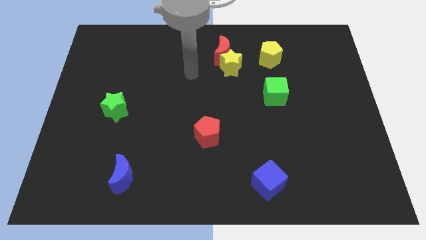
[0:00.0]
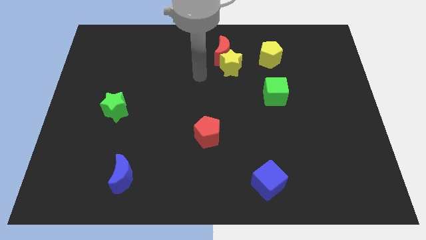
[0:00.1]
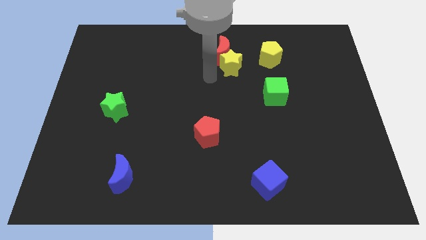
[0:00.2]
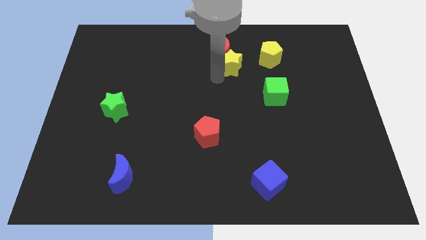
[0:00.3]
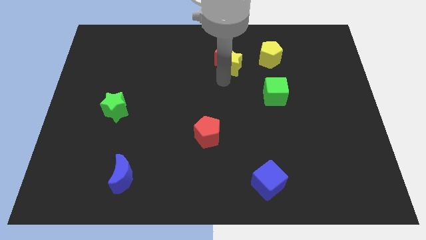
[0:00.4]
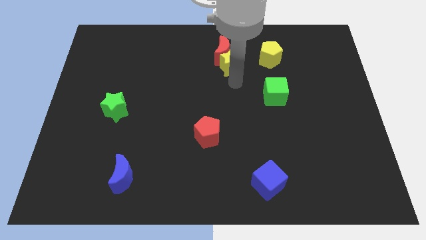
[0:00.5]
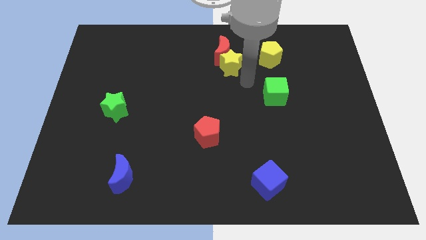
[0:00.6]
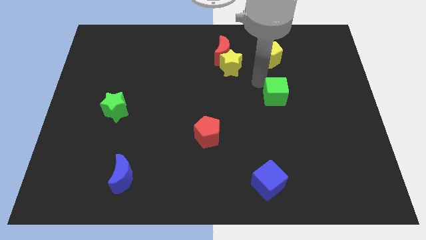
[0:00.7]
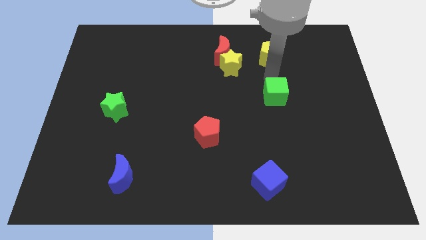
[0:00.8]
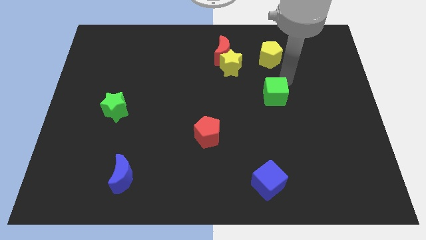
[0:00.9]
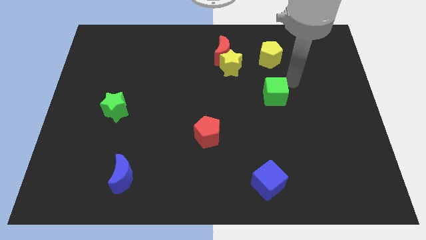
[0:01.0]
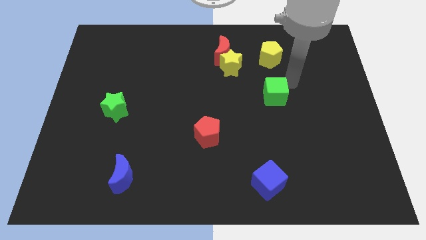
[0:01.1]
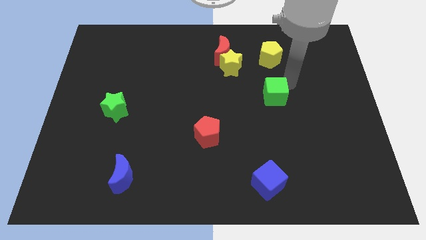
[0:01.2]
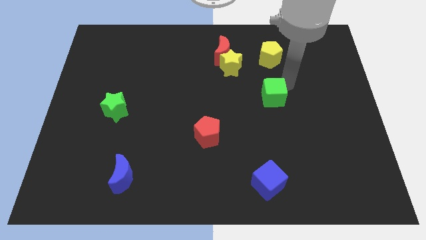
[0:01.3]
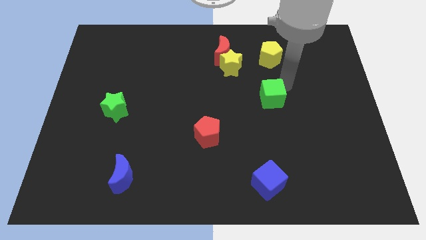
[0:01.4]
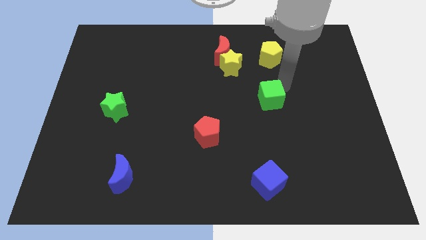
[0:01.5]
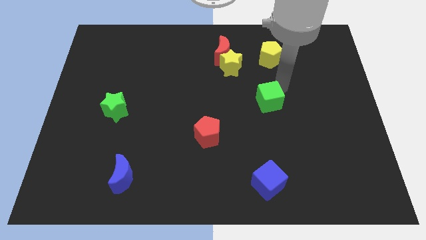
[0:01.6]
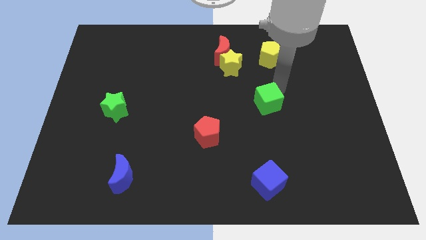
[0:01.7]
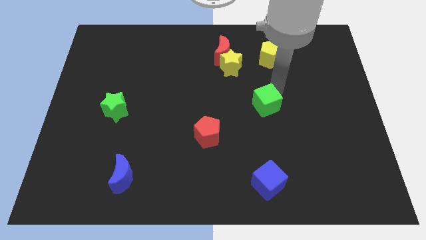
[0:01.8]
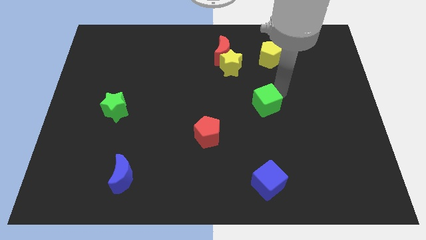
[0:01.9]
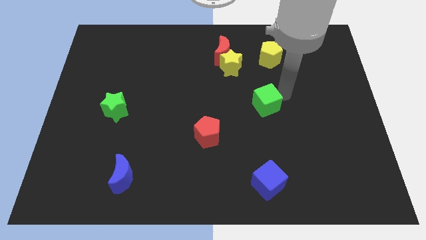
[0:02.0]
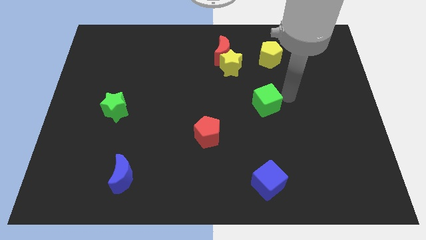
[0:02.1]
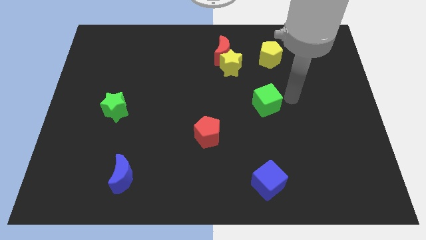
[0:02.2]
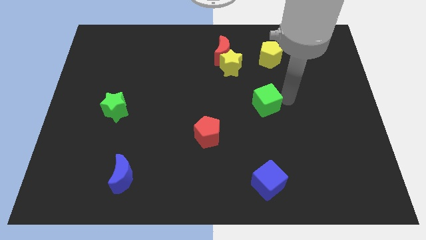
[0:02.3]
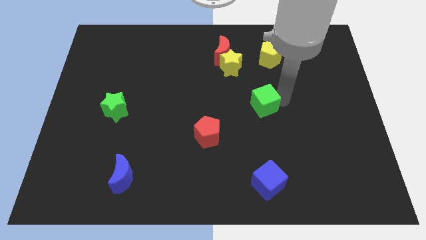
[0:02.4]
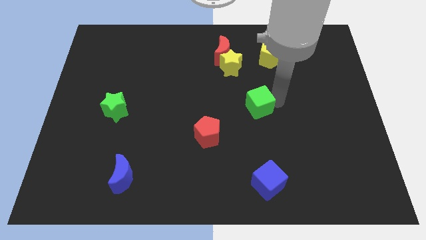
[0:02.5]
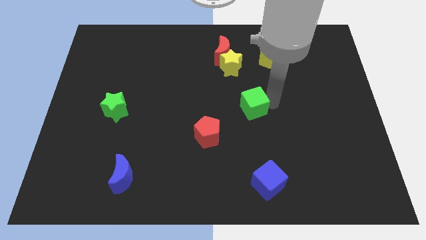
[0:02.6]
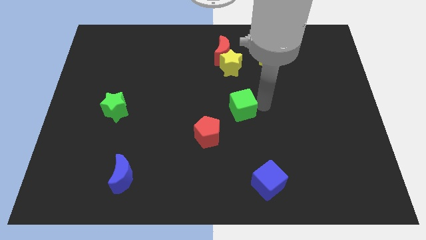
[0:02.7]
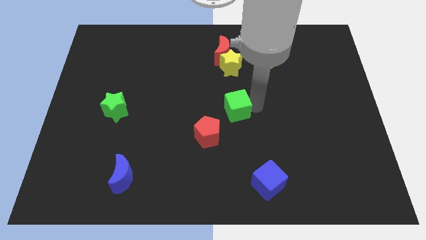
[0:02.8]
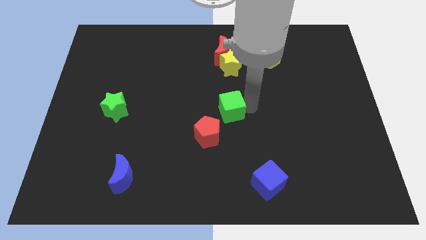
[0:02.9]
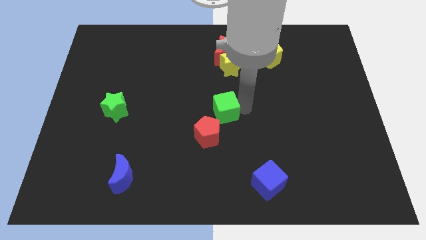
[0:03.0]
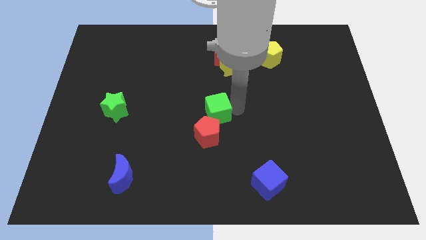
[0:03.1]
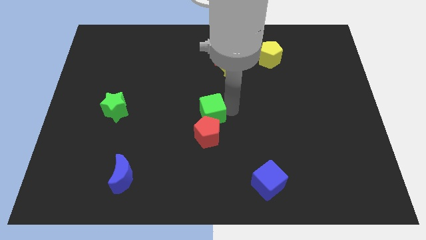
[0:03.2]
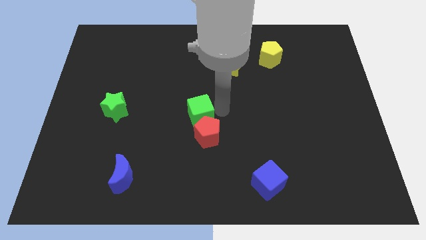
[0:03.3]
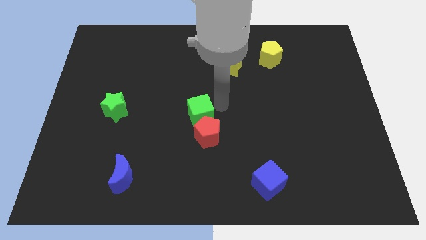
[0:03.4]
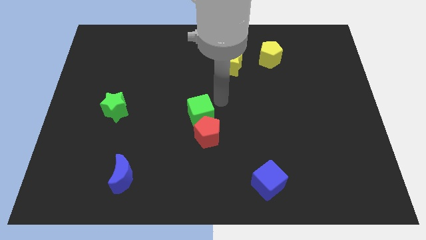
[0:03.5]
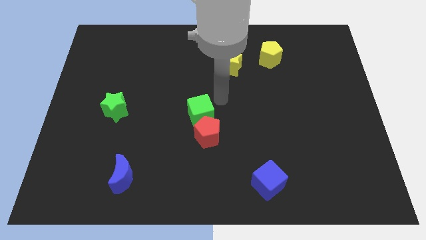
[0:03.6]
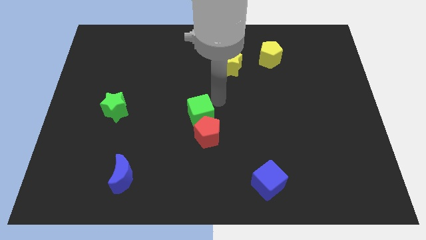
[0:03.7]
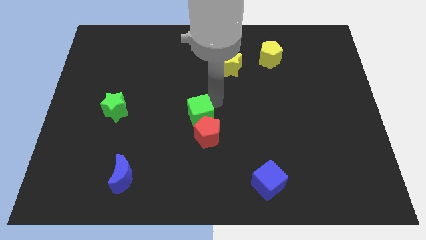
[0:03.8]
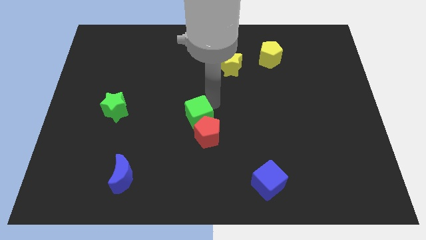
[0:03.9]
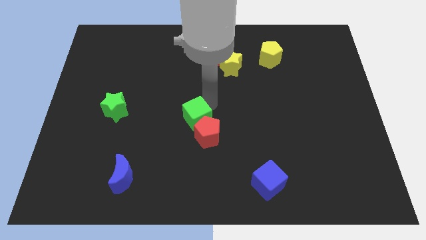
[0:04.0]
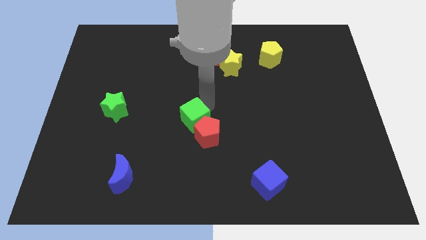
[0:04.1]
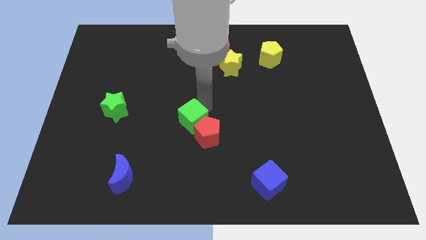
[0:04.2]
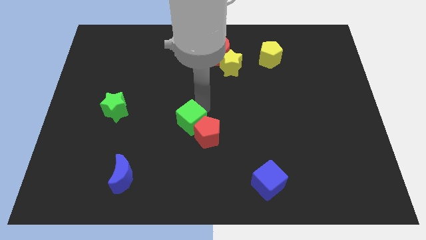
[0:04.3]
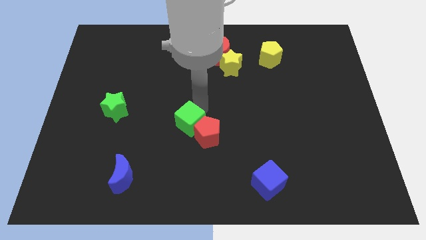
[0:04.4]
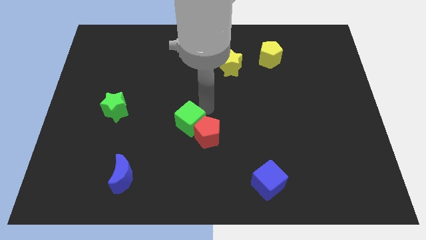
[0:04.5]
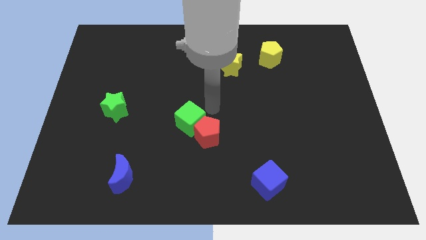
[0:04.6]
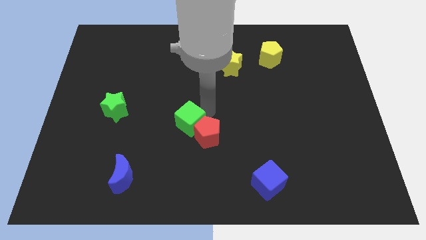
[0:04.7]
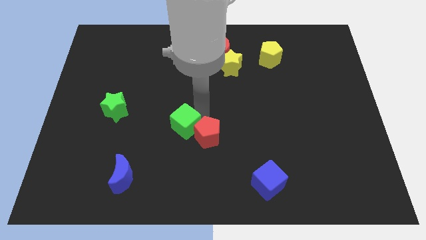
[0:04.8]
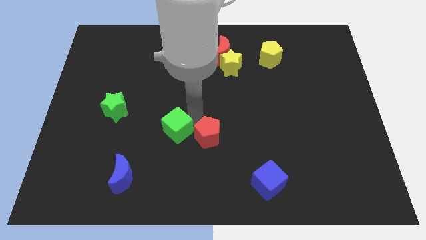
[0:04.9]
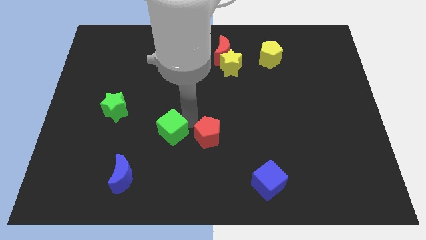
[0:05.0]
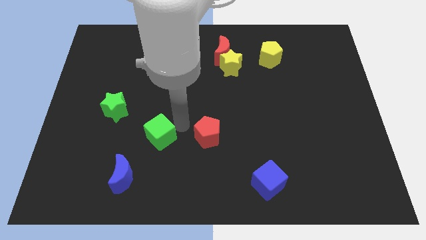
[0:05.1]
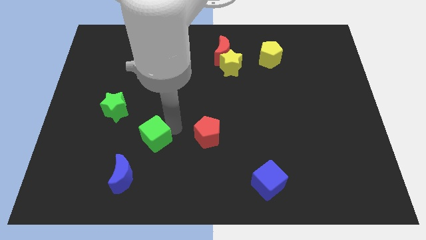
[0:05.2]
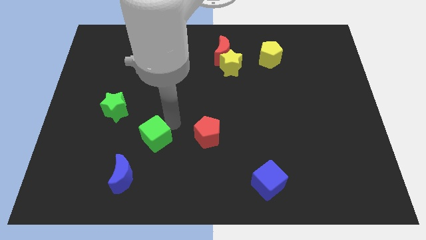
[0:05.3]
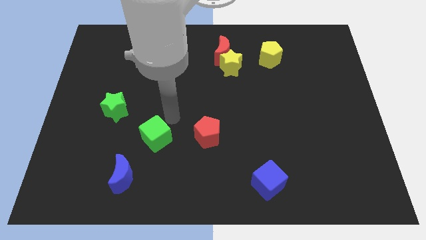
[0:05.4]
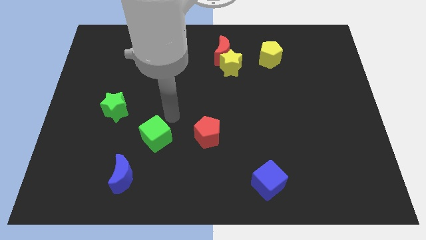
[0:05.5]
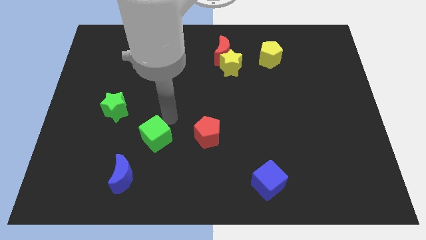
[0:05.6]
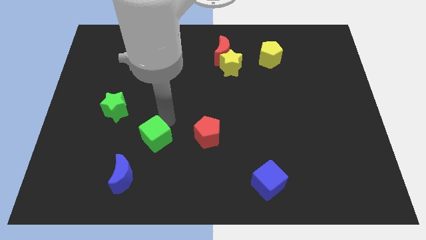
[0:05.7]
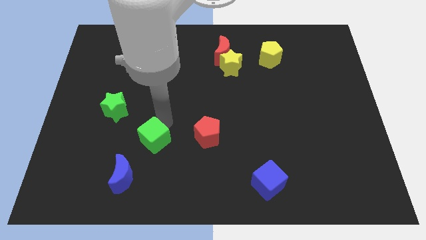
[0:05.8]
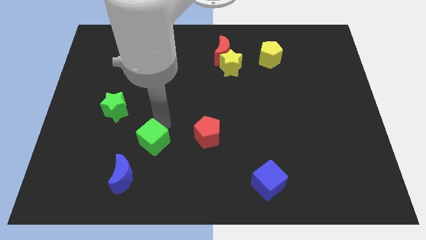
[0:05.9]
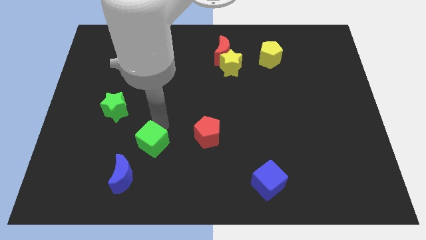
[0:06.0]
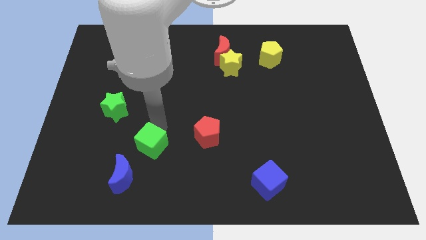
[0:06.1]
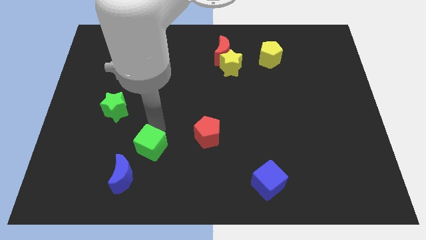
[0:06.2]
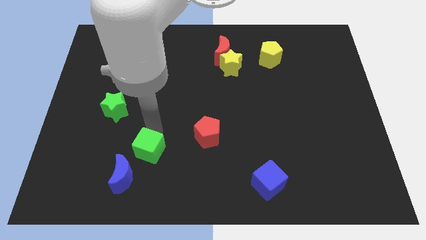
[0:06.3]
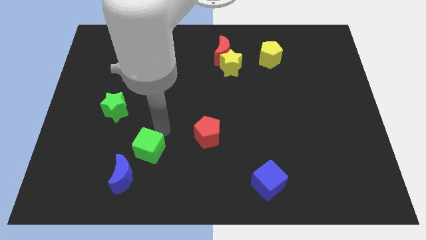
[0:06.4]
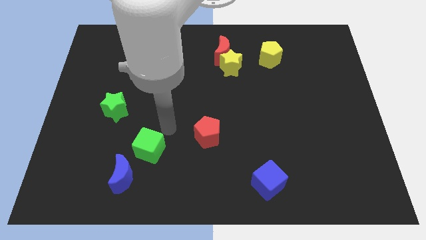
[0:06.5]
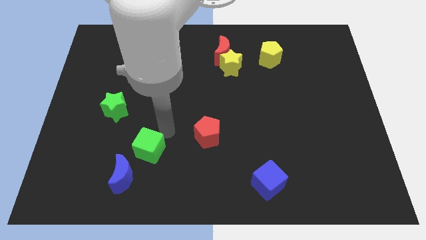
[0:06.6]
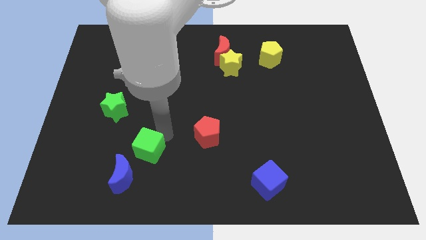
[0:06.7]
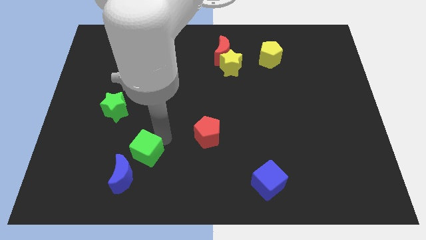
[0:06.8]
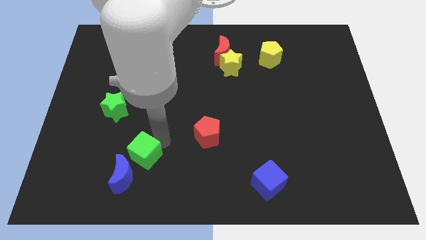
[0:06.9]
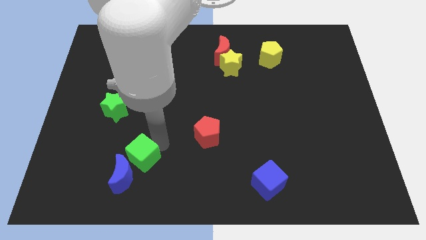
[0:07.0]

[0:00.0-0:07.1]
put the green cube next to the blue moon

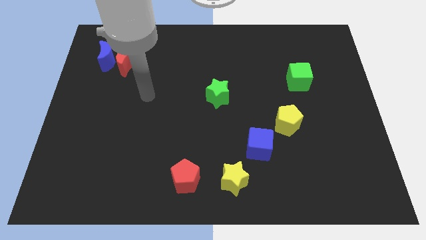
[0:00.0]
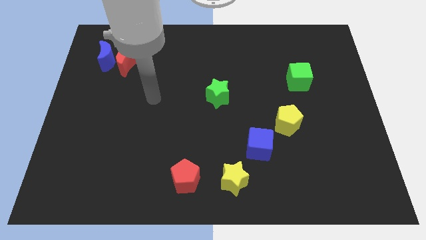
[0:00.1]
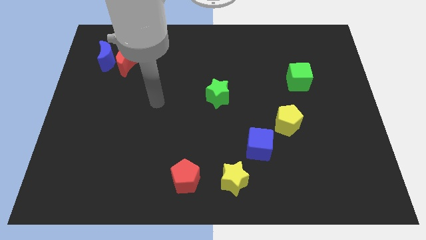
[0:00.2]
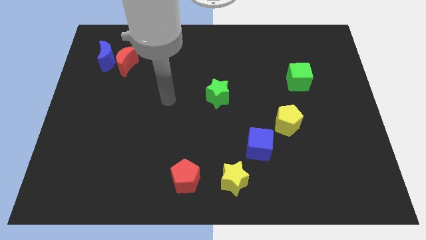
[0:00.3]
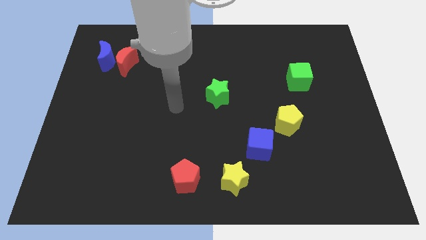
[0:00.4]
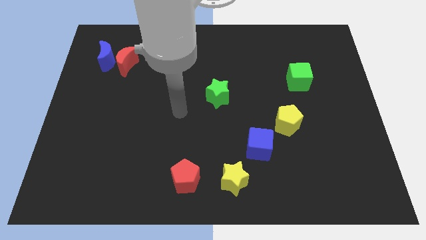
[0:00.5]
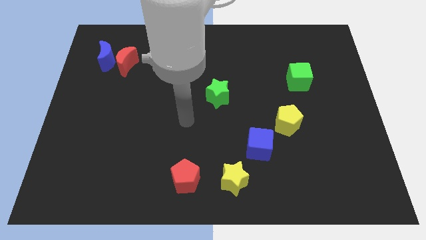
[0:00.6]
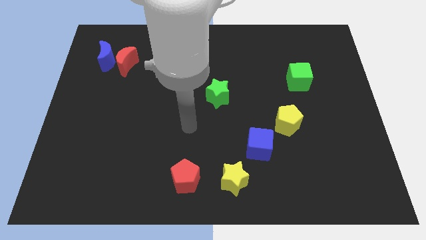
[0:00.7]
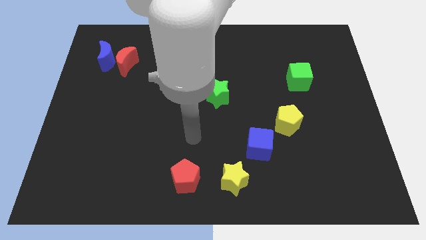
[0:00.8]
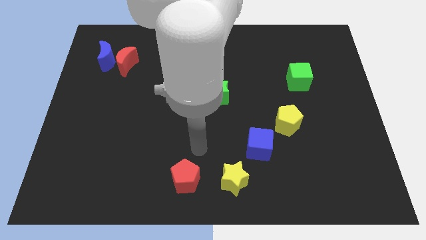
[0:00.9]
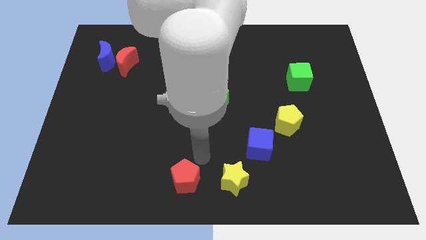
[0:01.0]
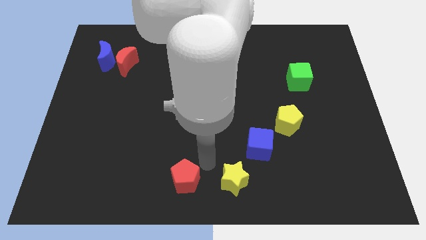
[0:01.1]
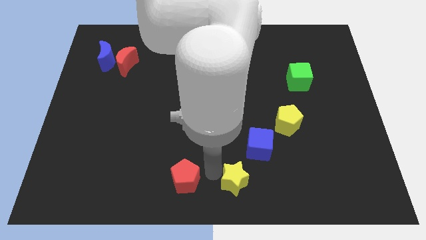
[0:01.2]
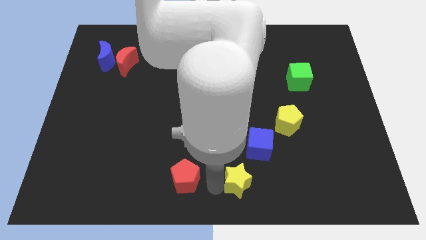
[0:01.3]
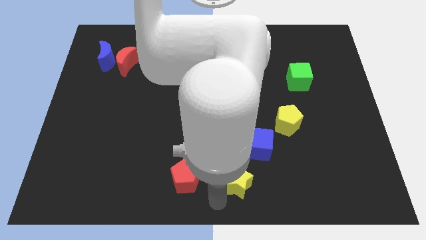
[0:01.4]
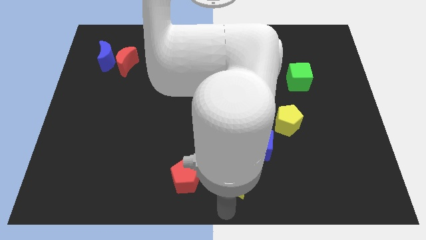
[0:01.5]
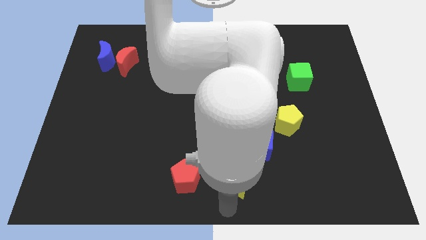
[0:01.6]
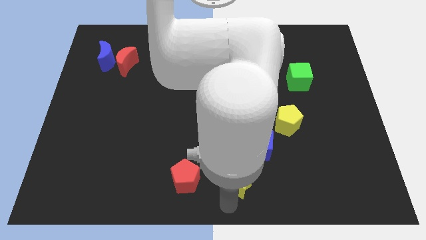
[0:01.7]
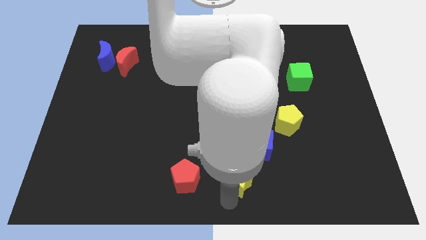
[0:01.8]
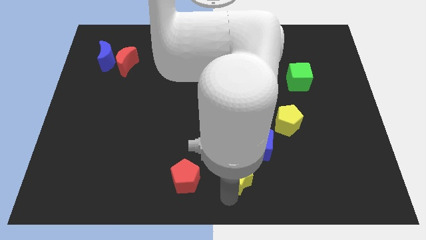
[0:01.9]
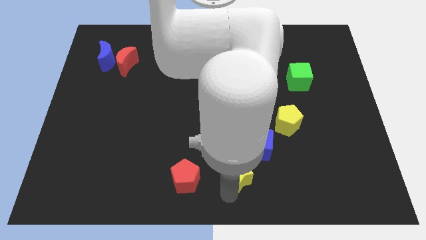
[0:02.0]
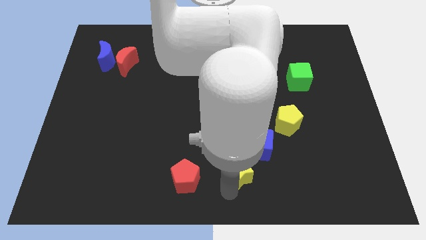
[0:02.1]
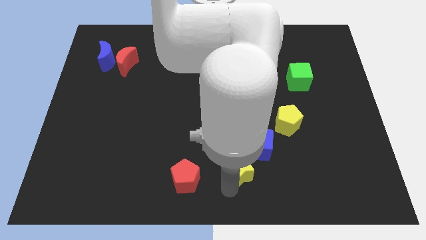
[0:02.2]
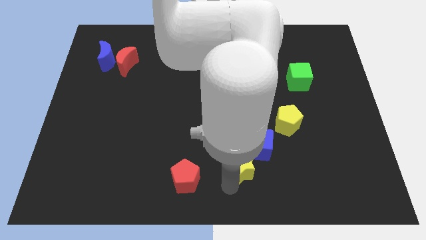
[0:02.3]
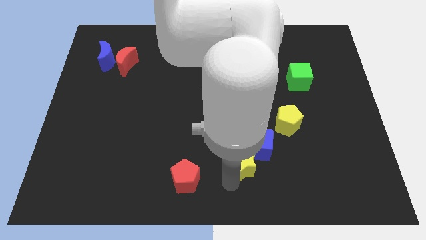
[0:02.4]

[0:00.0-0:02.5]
put the yellow star next to the blue cube
